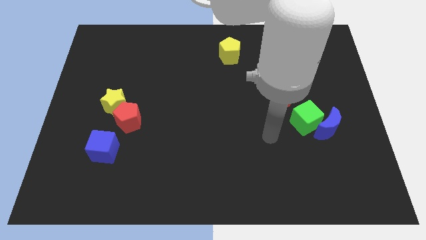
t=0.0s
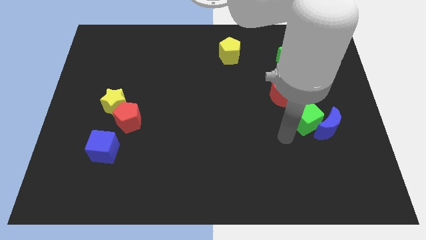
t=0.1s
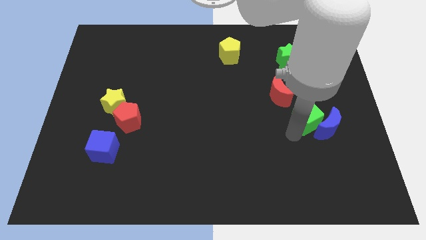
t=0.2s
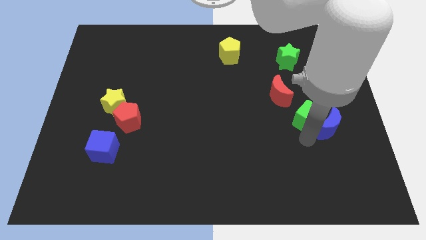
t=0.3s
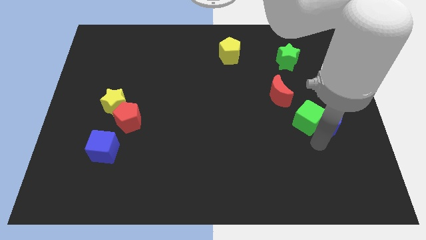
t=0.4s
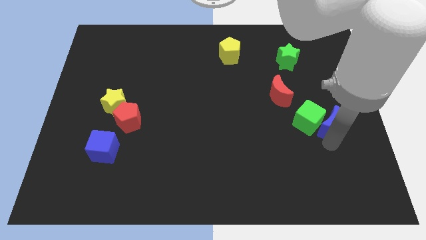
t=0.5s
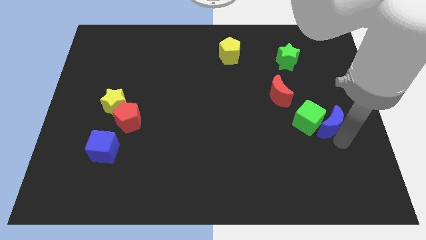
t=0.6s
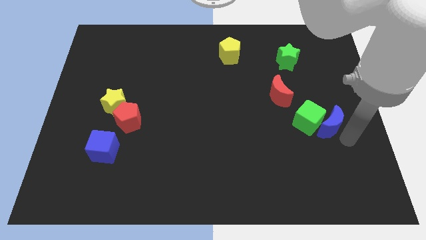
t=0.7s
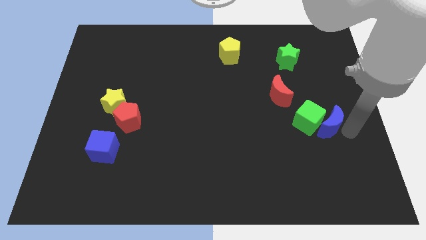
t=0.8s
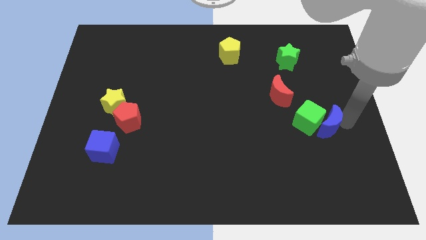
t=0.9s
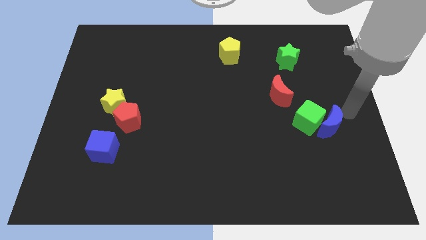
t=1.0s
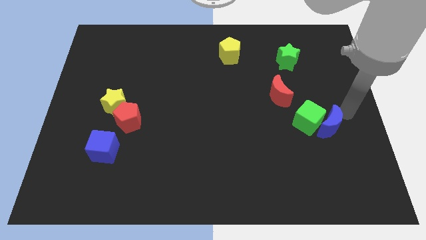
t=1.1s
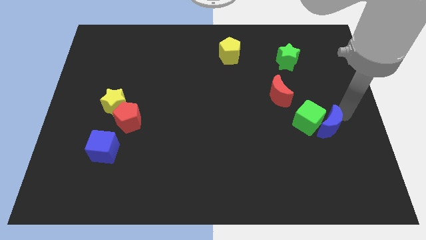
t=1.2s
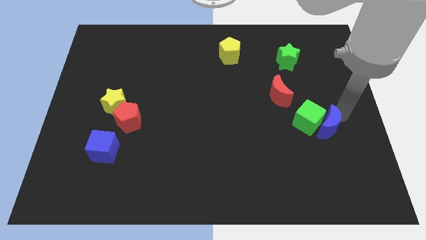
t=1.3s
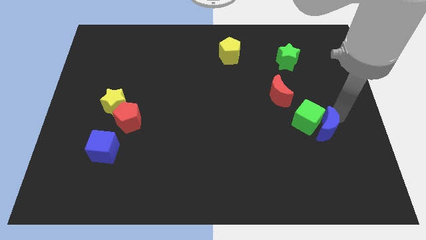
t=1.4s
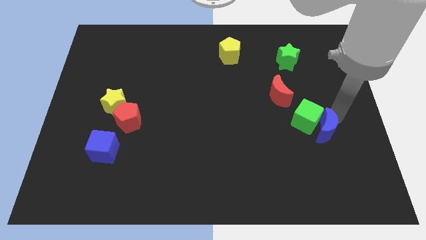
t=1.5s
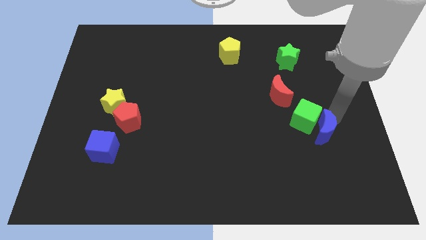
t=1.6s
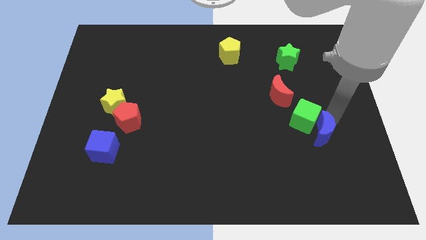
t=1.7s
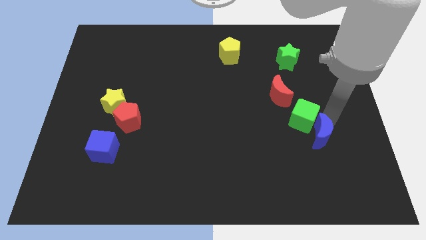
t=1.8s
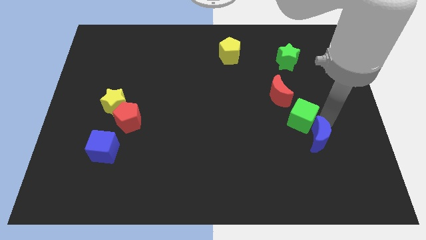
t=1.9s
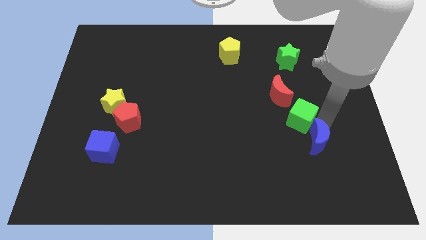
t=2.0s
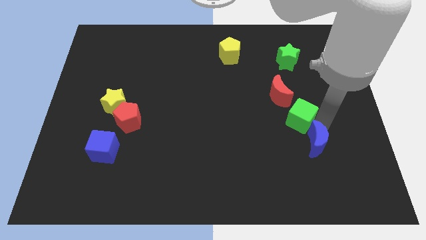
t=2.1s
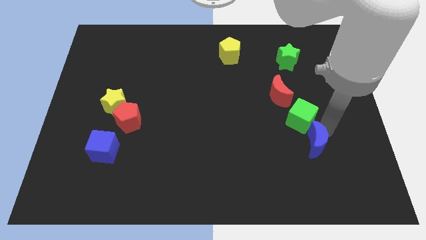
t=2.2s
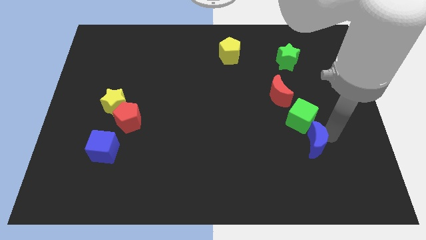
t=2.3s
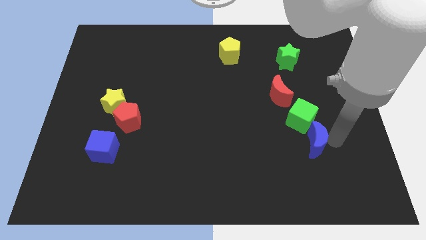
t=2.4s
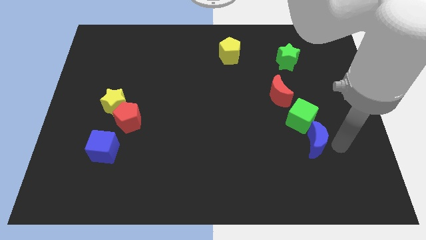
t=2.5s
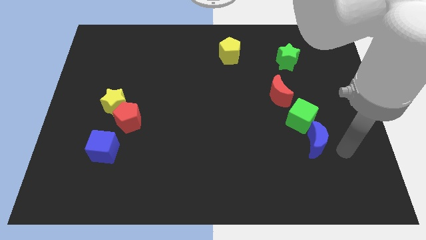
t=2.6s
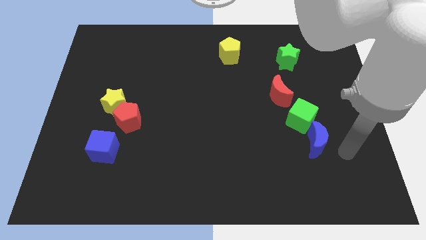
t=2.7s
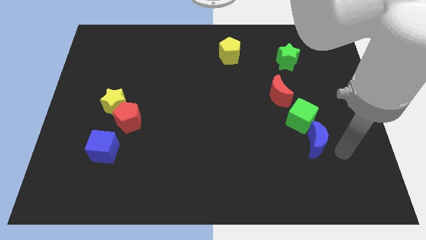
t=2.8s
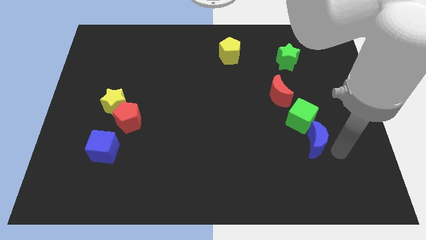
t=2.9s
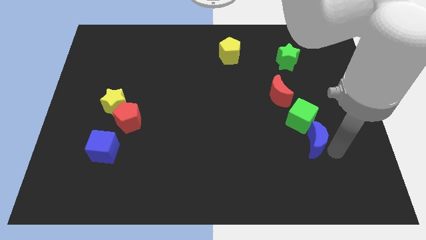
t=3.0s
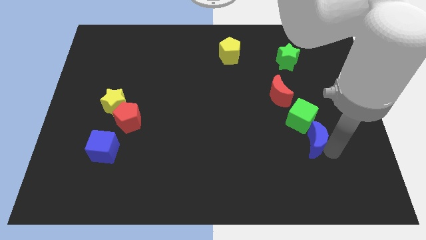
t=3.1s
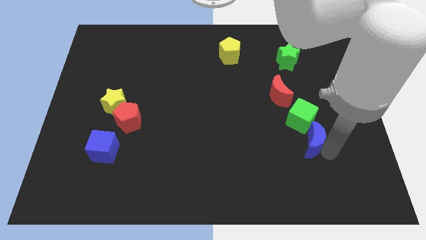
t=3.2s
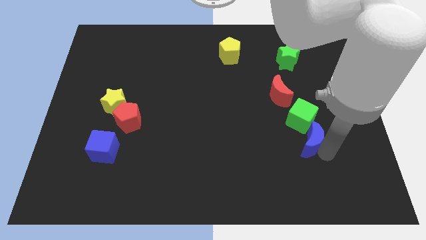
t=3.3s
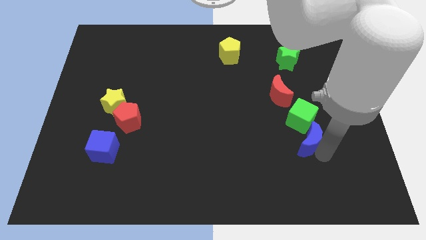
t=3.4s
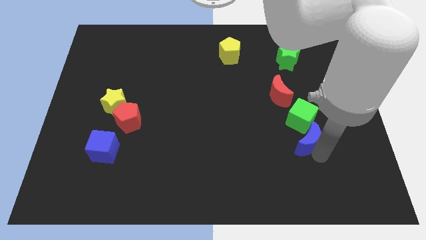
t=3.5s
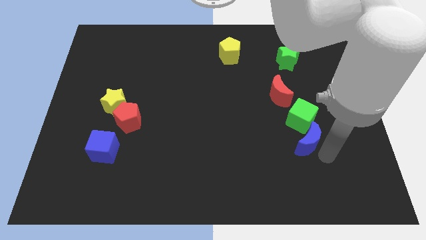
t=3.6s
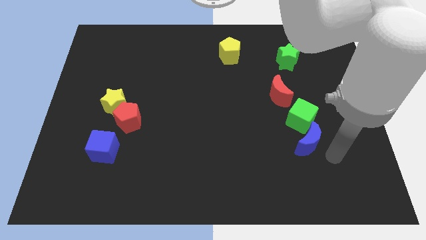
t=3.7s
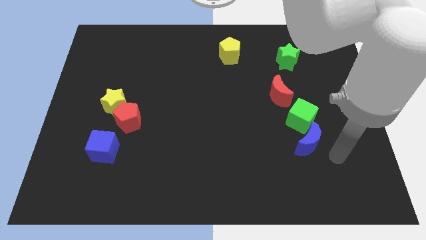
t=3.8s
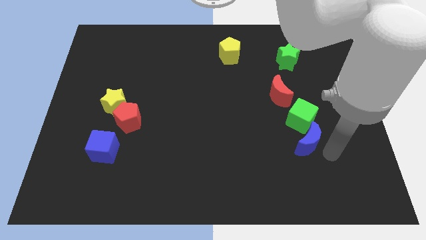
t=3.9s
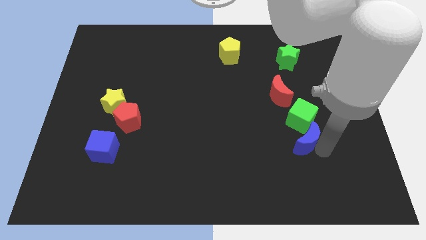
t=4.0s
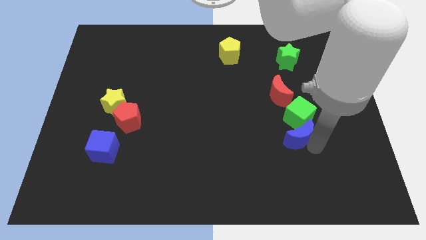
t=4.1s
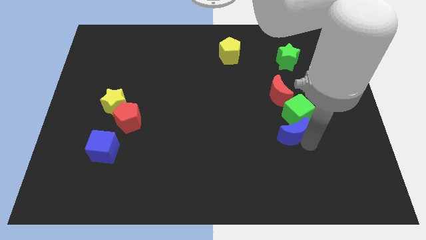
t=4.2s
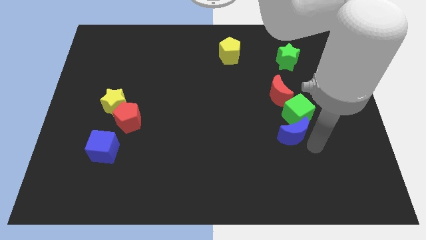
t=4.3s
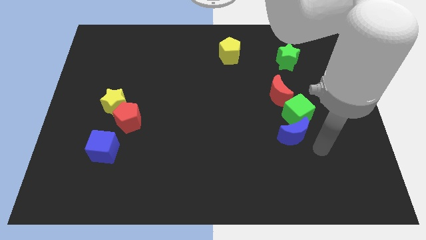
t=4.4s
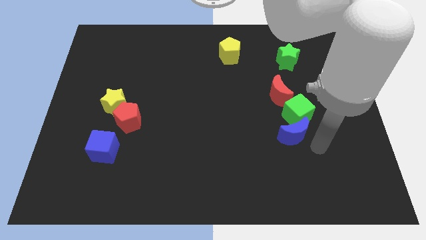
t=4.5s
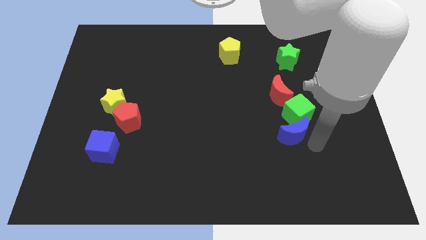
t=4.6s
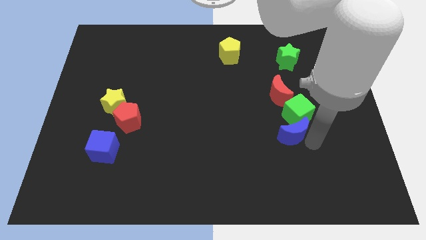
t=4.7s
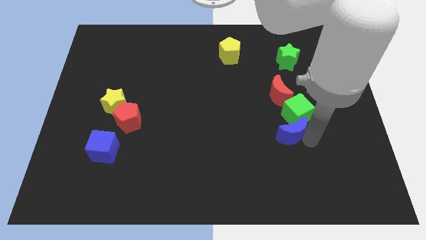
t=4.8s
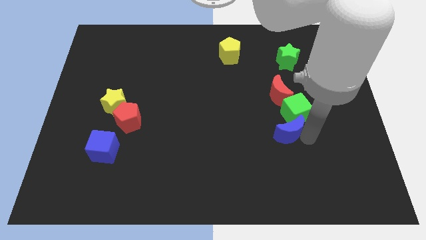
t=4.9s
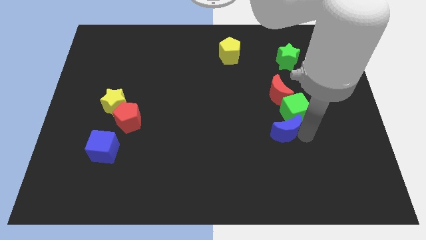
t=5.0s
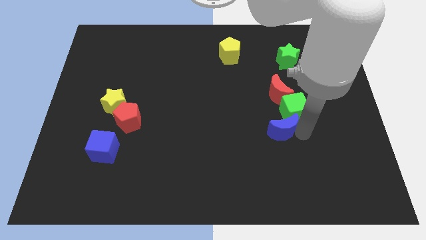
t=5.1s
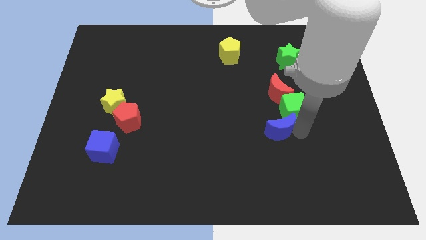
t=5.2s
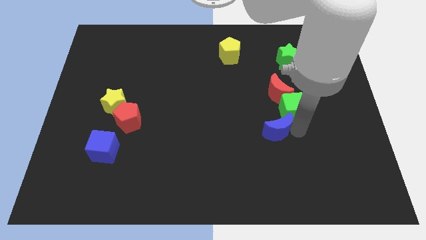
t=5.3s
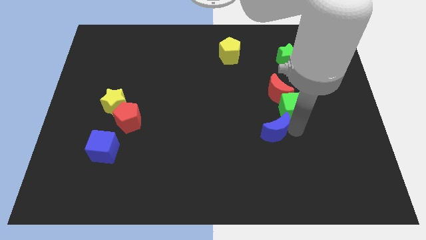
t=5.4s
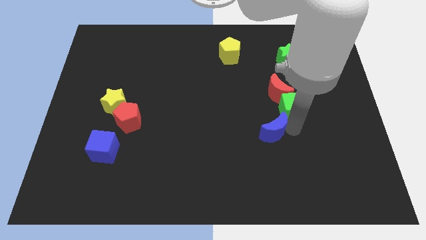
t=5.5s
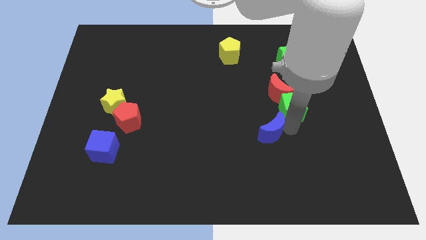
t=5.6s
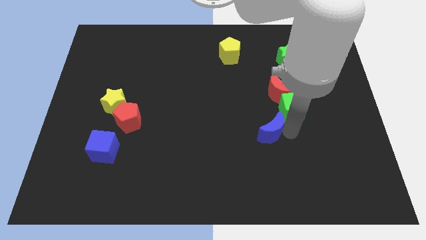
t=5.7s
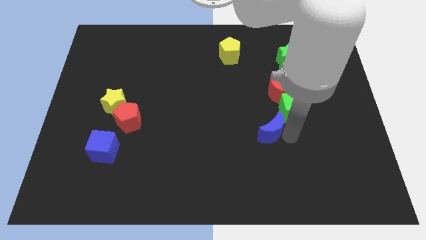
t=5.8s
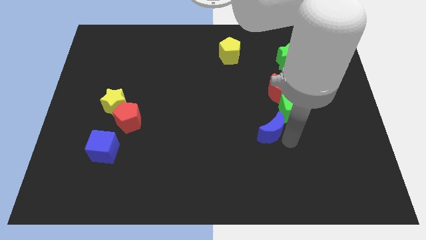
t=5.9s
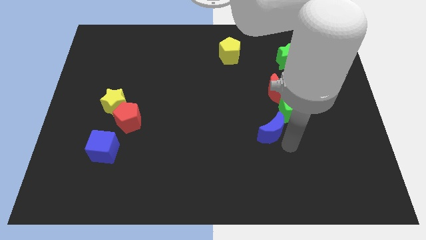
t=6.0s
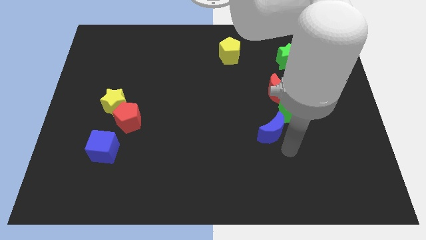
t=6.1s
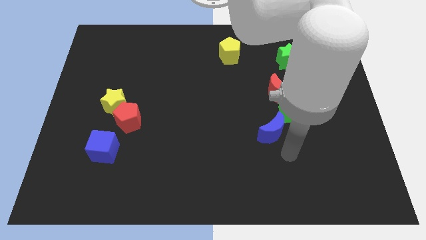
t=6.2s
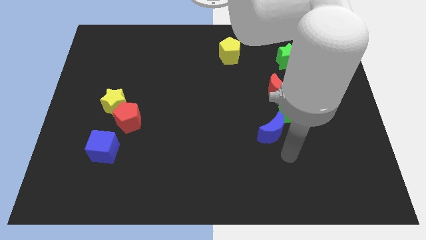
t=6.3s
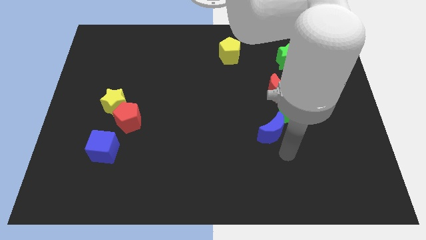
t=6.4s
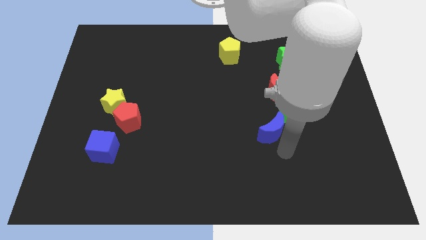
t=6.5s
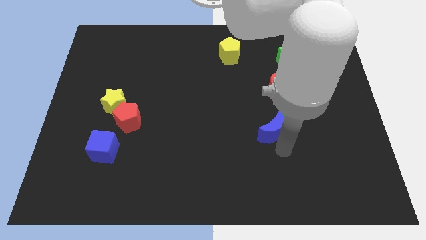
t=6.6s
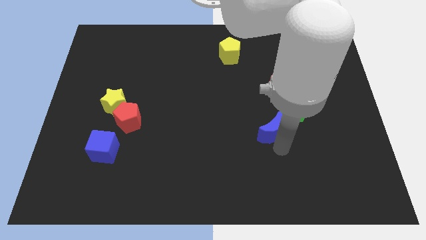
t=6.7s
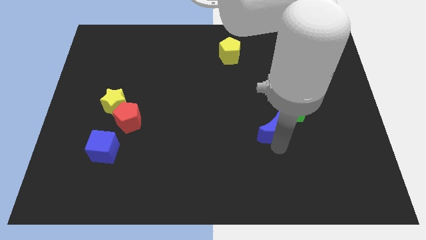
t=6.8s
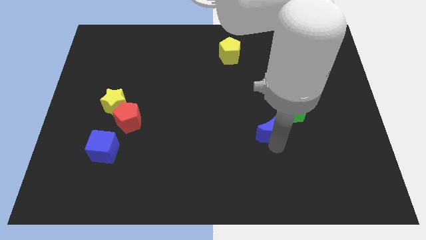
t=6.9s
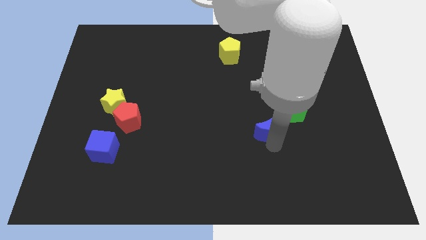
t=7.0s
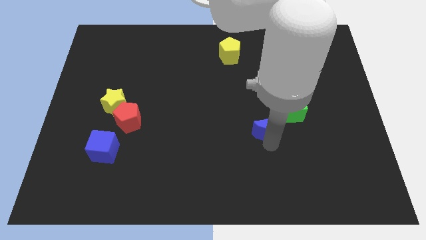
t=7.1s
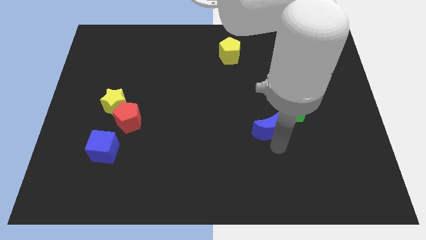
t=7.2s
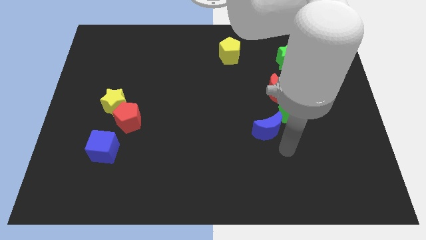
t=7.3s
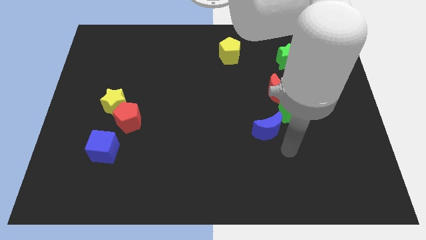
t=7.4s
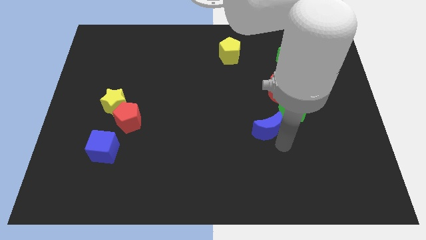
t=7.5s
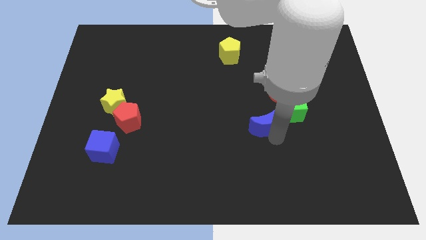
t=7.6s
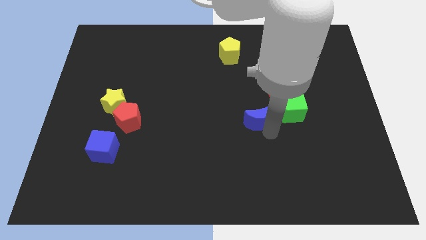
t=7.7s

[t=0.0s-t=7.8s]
slide the blue moon to the center of the board
